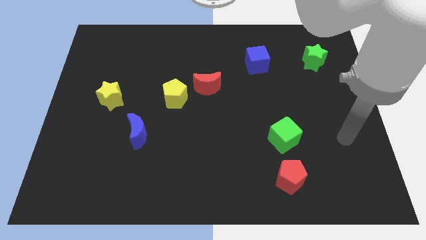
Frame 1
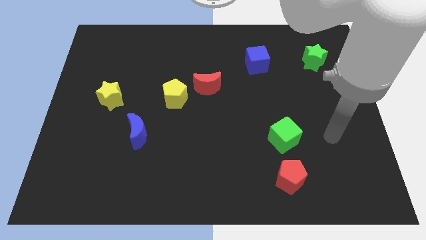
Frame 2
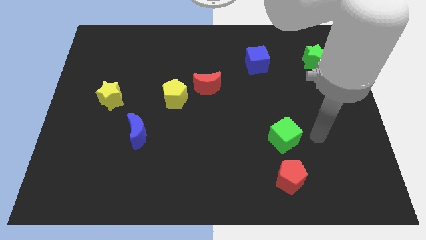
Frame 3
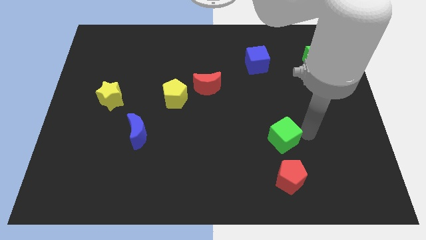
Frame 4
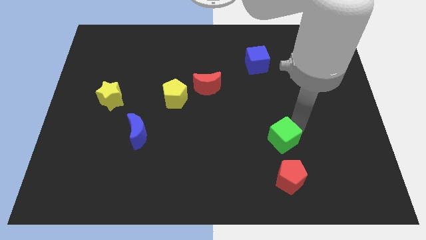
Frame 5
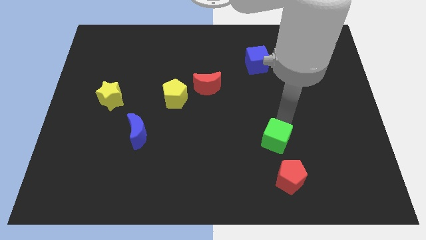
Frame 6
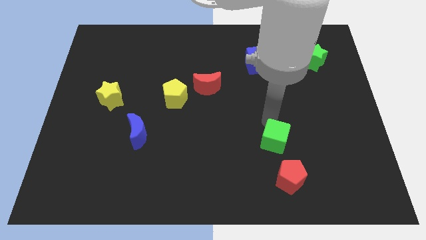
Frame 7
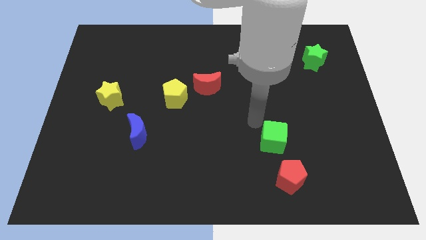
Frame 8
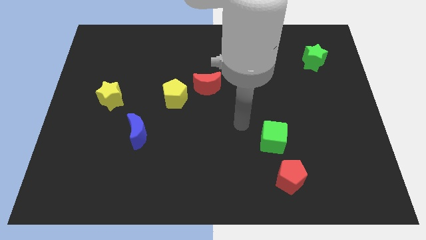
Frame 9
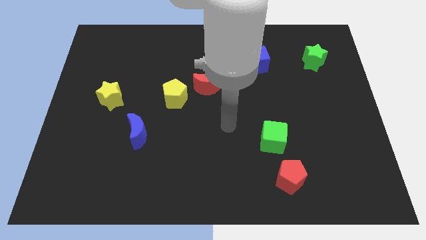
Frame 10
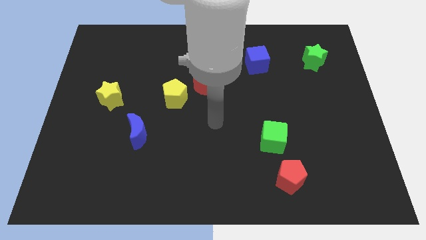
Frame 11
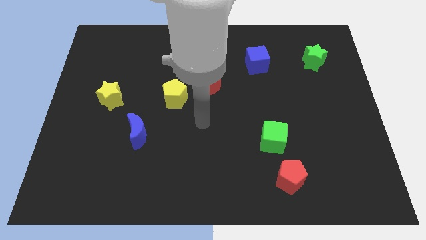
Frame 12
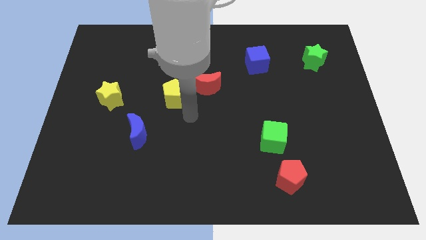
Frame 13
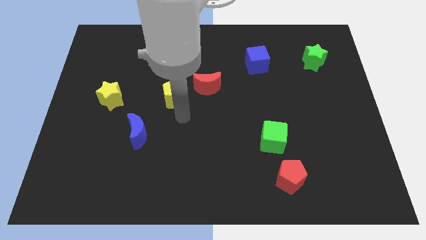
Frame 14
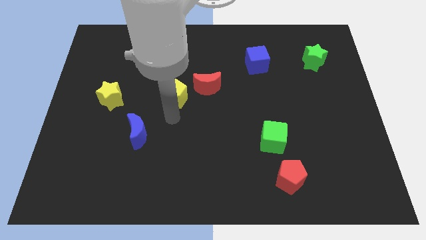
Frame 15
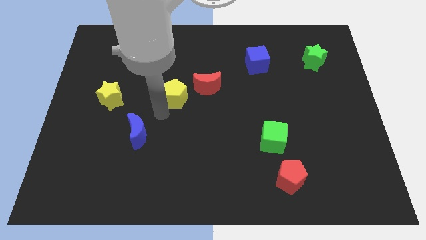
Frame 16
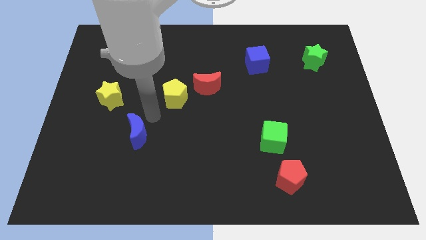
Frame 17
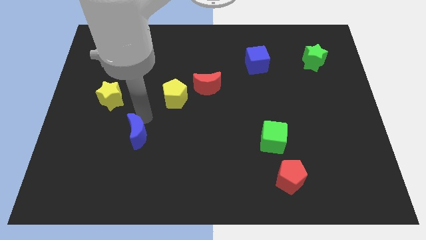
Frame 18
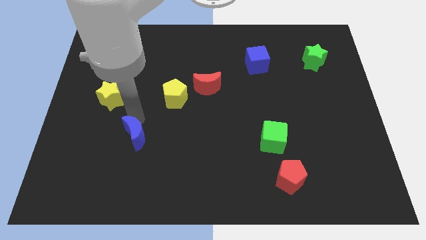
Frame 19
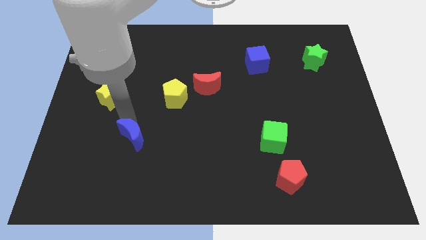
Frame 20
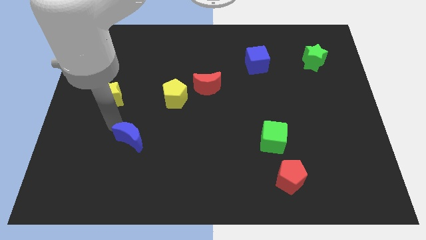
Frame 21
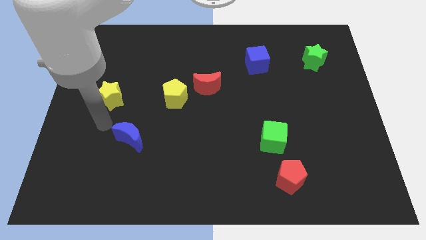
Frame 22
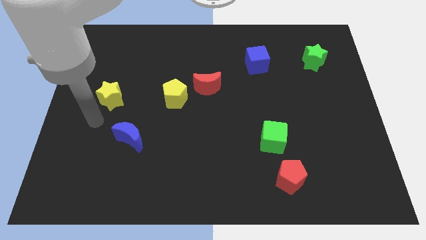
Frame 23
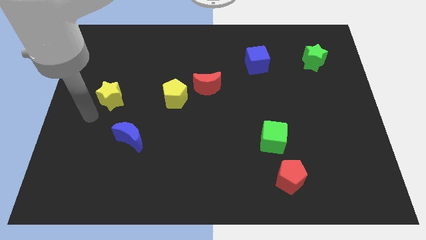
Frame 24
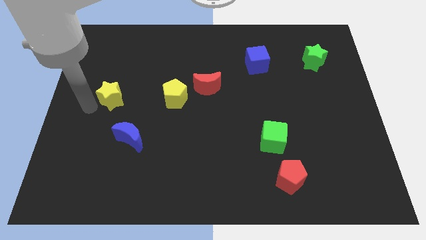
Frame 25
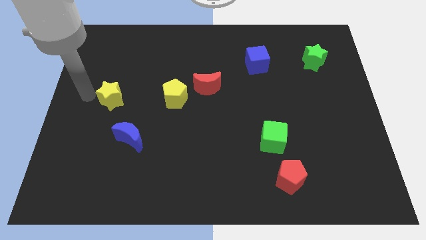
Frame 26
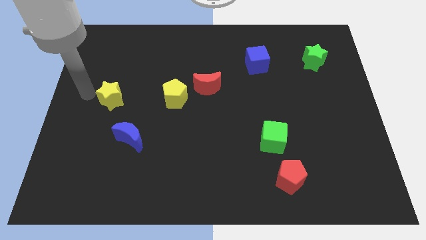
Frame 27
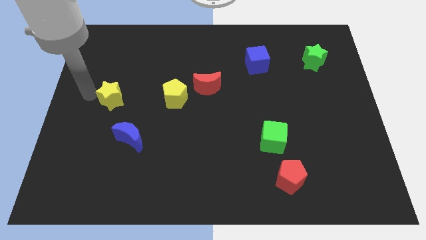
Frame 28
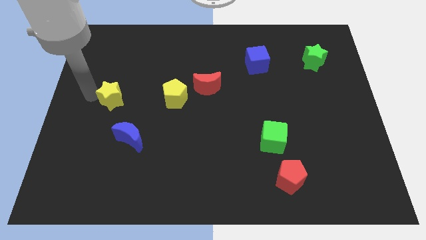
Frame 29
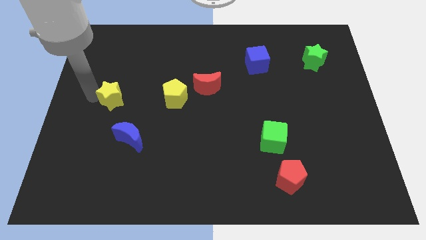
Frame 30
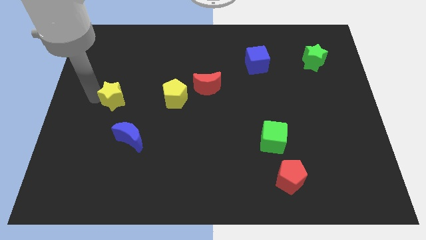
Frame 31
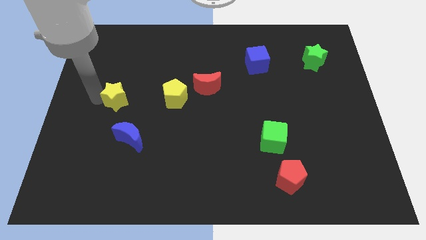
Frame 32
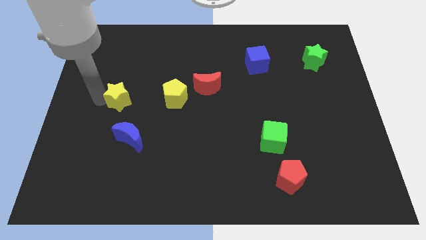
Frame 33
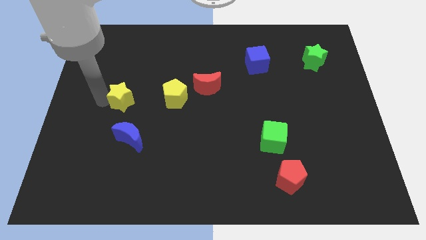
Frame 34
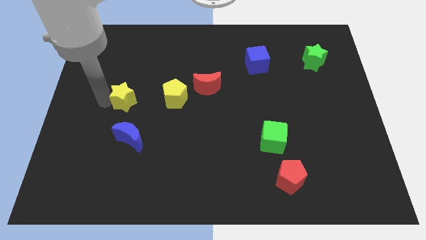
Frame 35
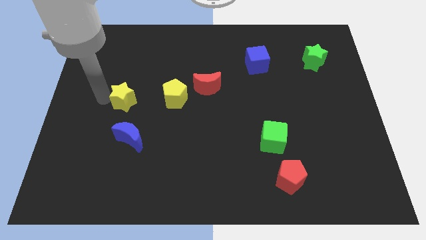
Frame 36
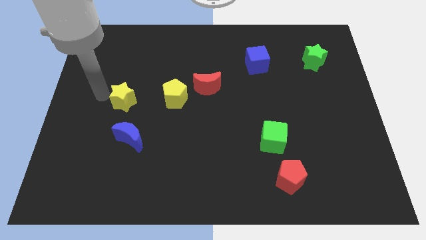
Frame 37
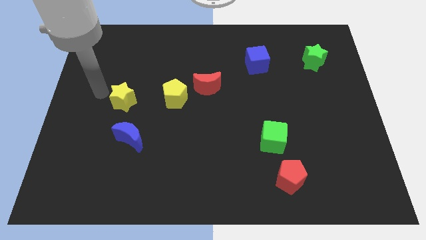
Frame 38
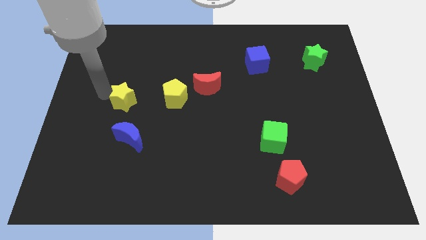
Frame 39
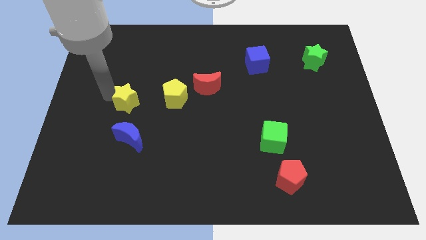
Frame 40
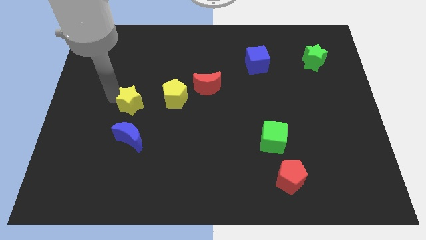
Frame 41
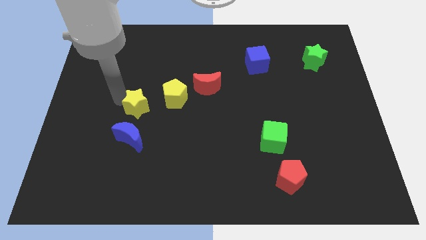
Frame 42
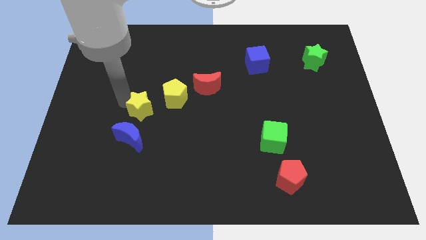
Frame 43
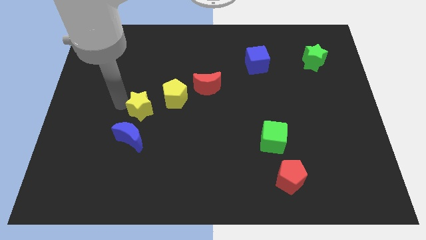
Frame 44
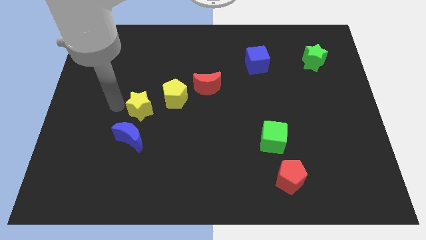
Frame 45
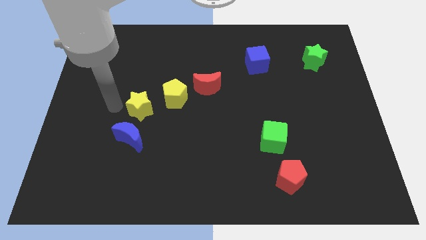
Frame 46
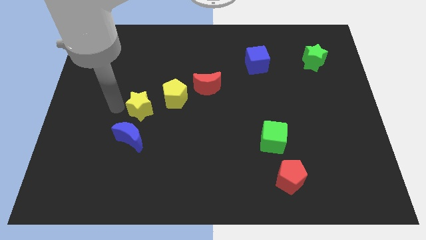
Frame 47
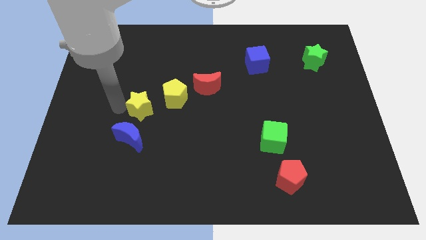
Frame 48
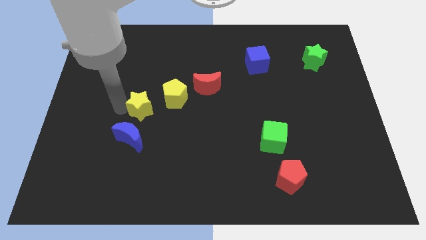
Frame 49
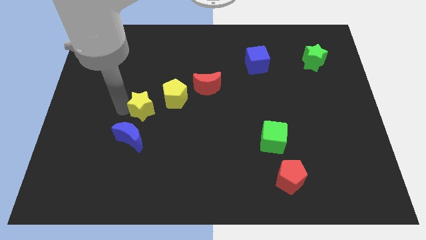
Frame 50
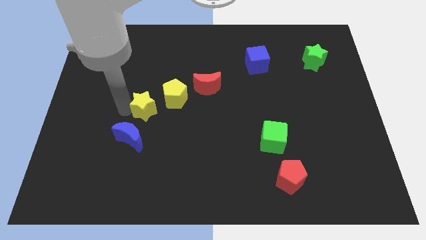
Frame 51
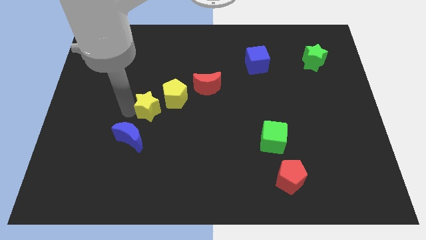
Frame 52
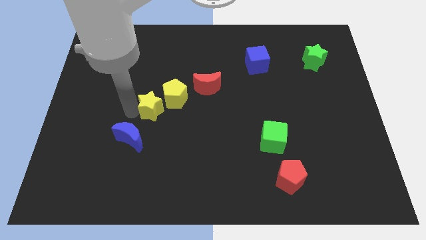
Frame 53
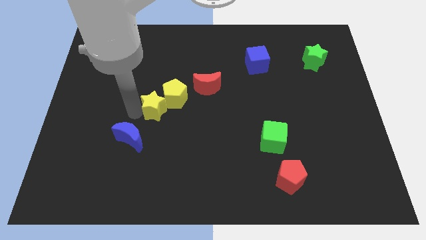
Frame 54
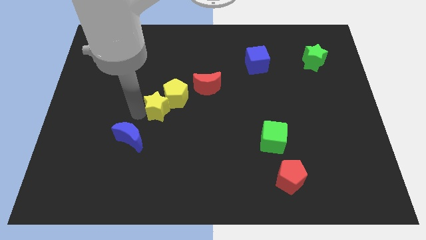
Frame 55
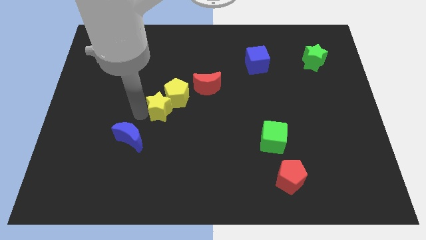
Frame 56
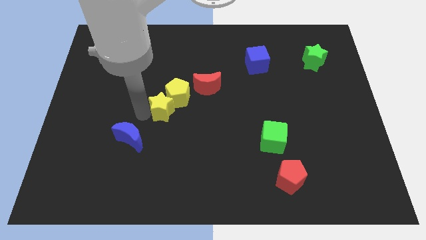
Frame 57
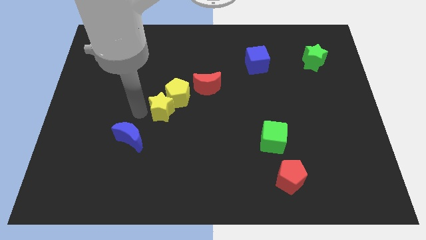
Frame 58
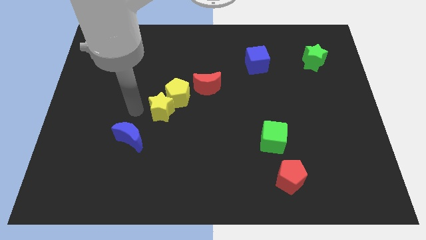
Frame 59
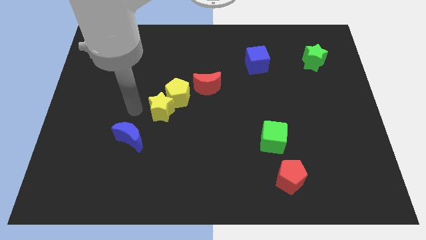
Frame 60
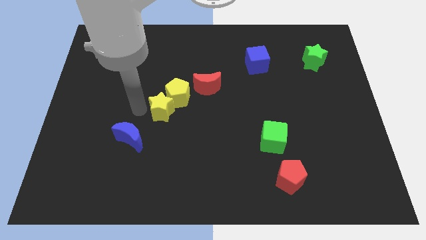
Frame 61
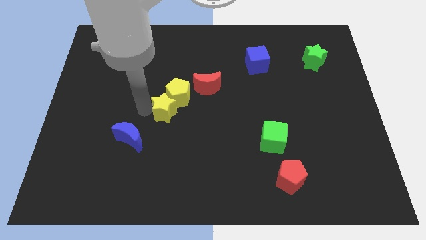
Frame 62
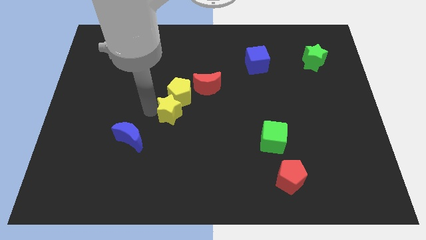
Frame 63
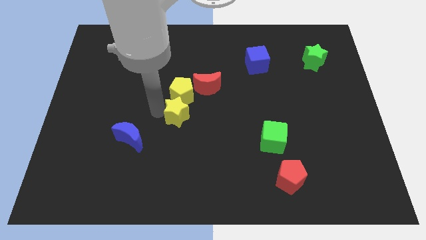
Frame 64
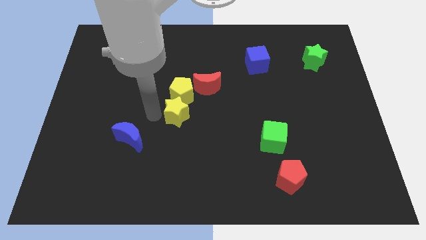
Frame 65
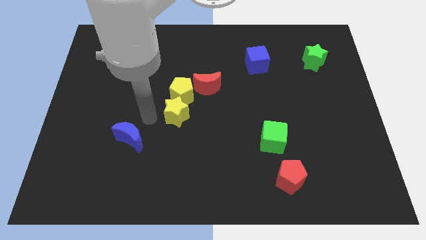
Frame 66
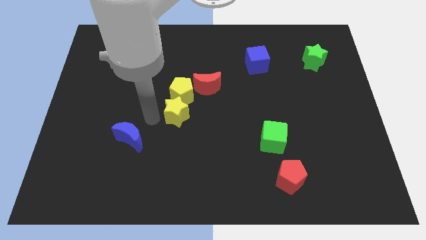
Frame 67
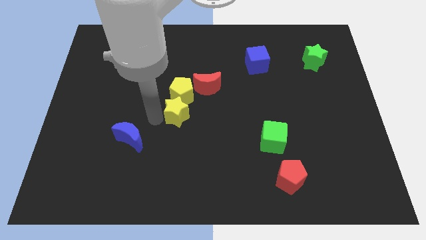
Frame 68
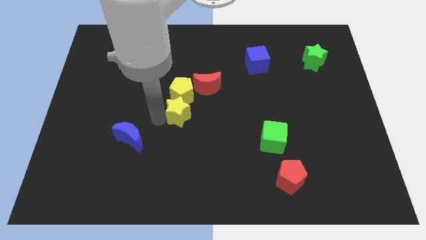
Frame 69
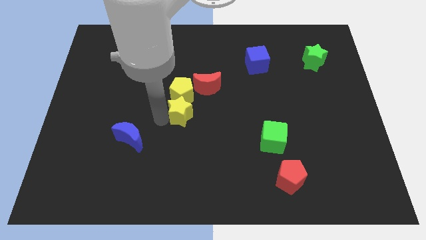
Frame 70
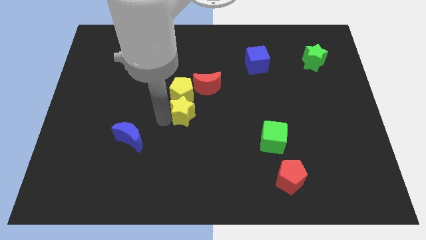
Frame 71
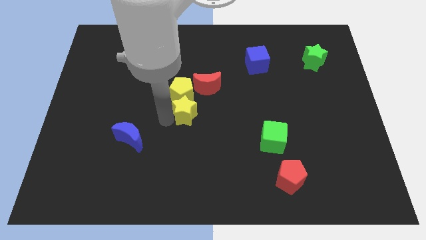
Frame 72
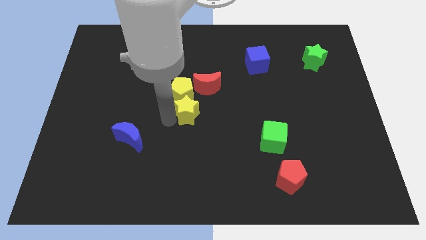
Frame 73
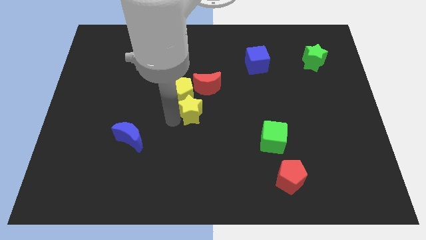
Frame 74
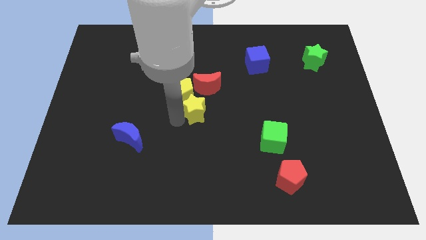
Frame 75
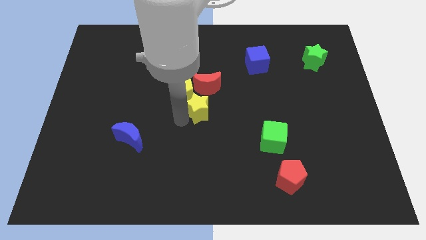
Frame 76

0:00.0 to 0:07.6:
slide the yellow star right
